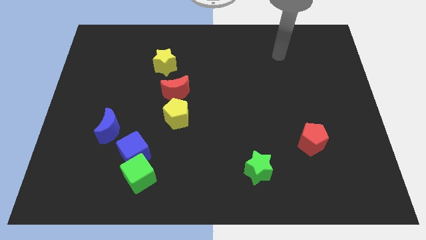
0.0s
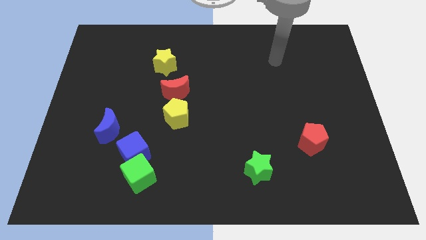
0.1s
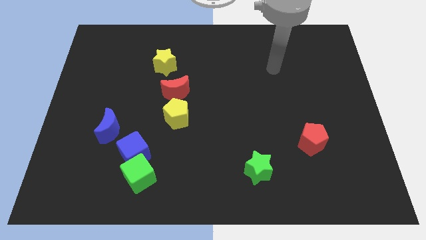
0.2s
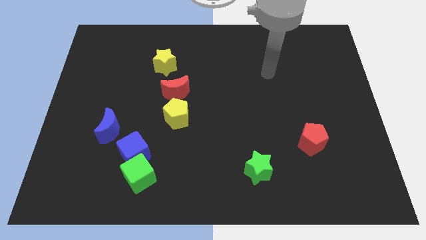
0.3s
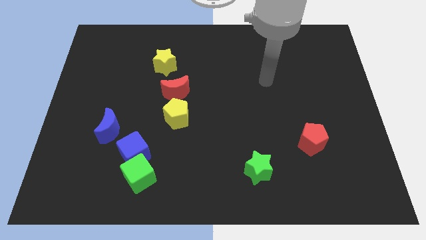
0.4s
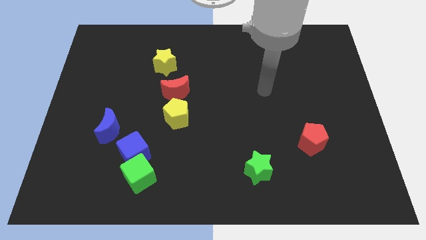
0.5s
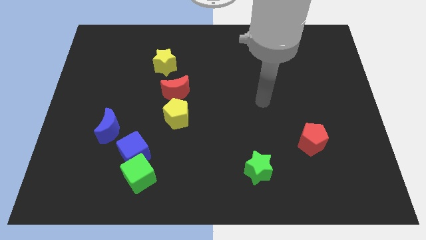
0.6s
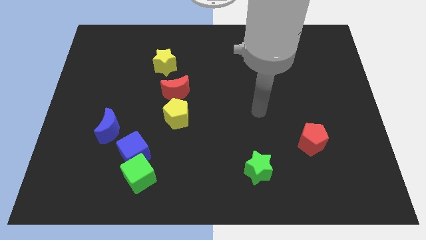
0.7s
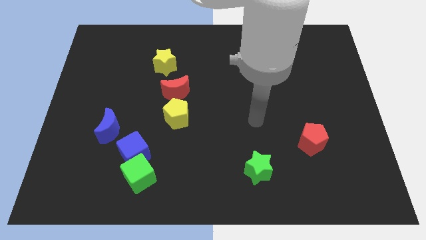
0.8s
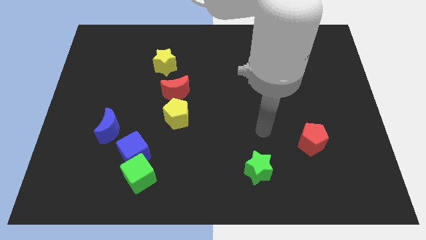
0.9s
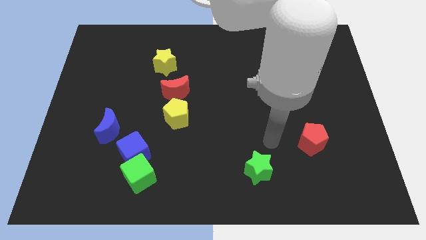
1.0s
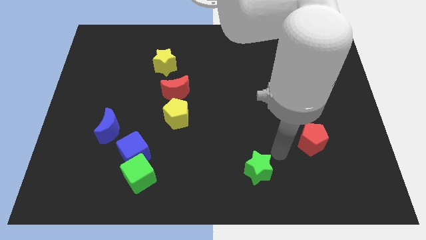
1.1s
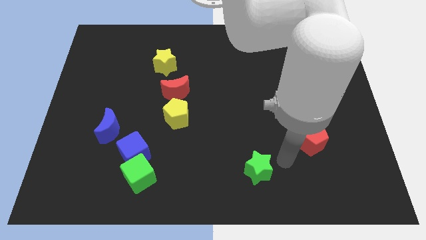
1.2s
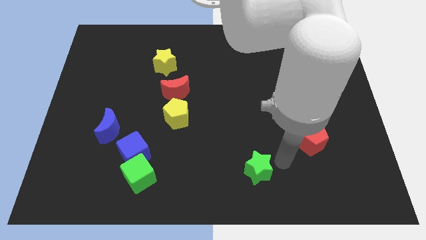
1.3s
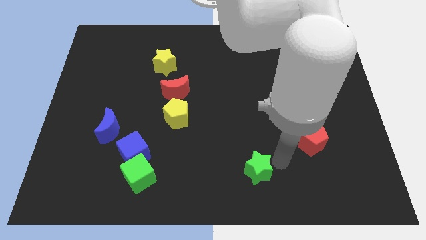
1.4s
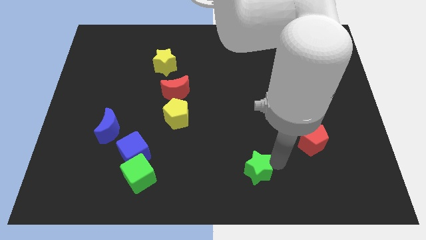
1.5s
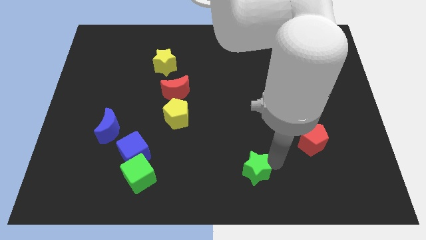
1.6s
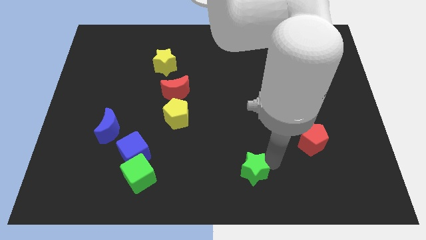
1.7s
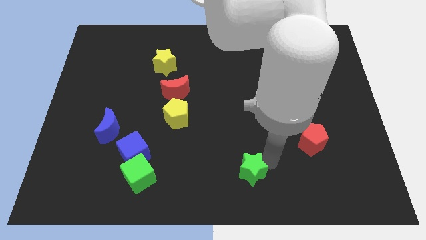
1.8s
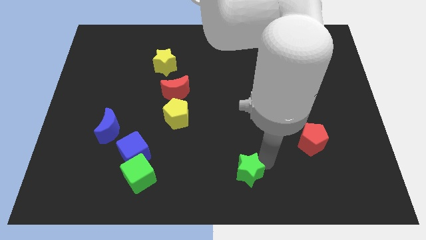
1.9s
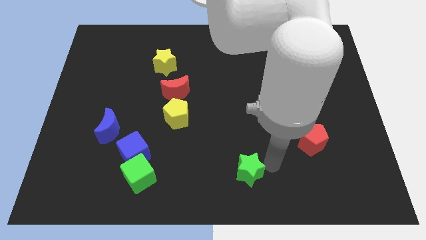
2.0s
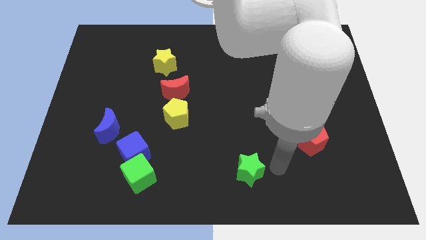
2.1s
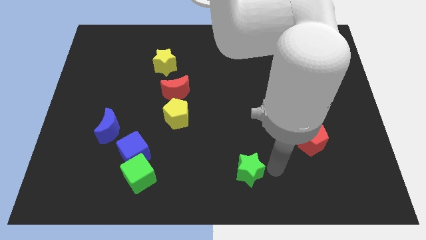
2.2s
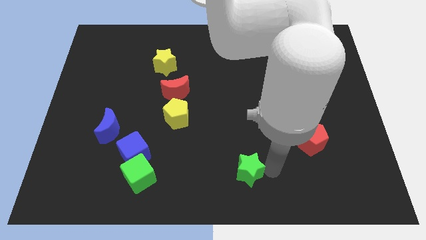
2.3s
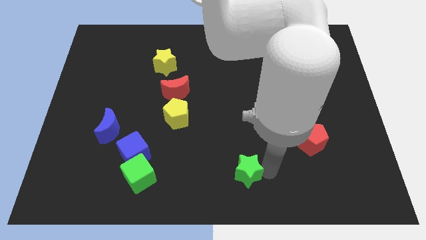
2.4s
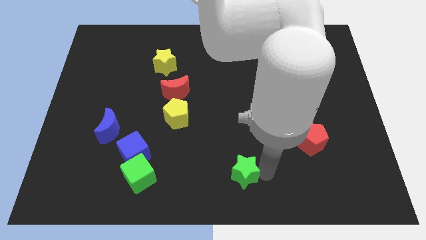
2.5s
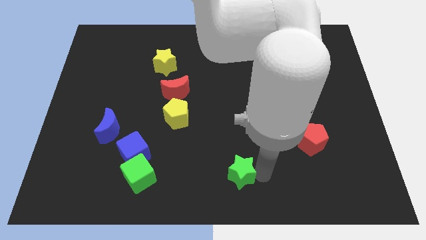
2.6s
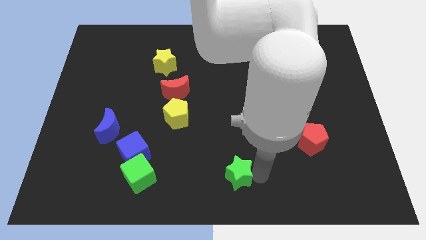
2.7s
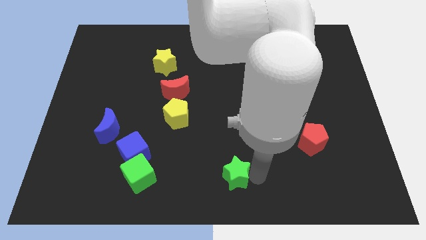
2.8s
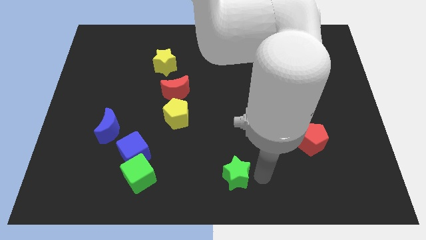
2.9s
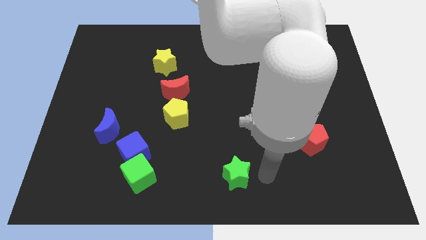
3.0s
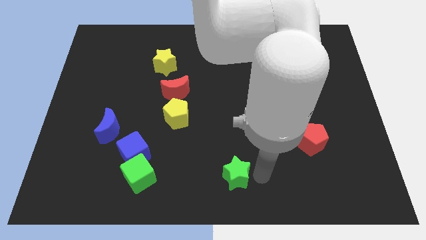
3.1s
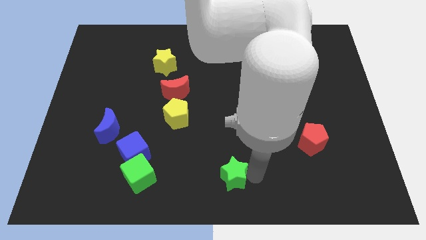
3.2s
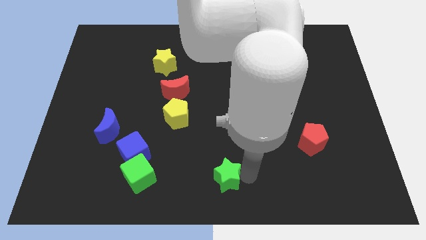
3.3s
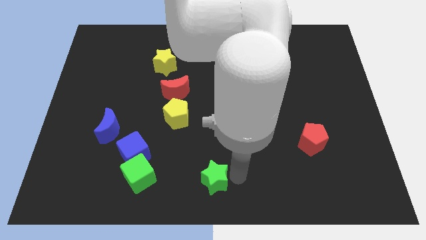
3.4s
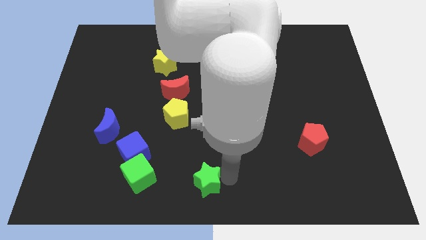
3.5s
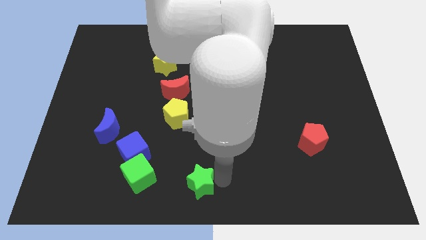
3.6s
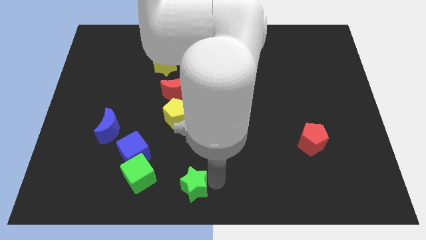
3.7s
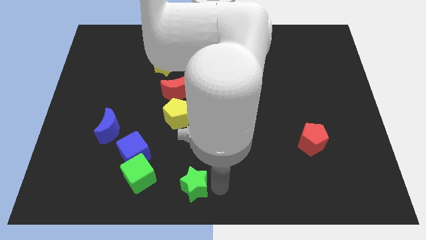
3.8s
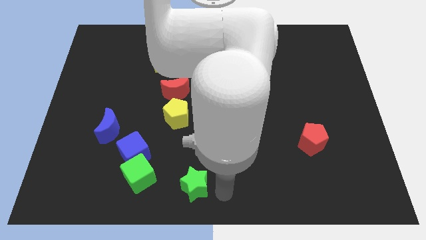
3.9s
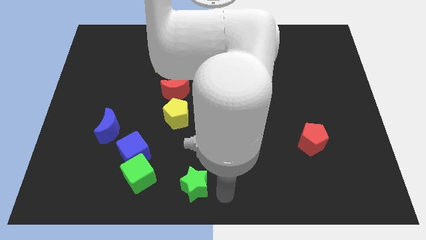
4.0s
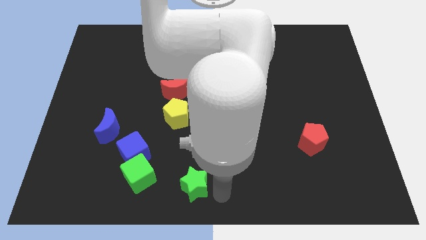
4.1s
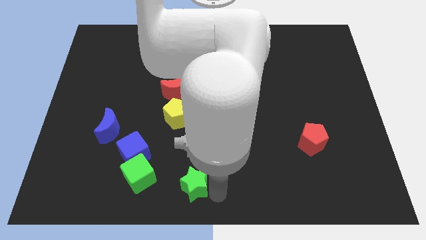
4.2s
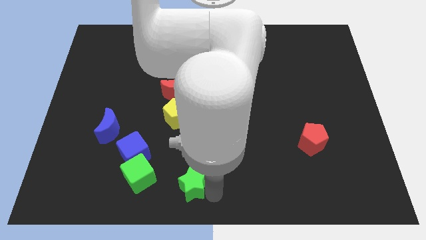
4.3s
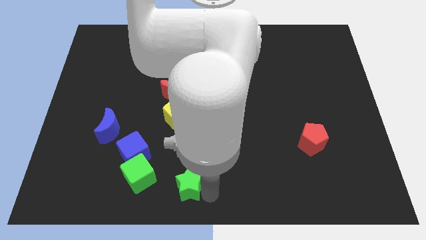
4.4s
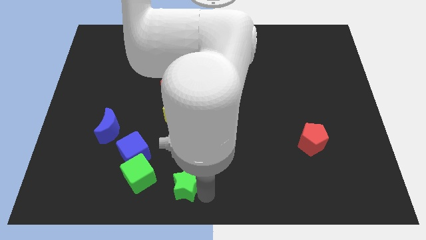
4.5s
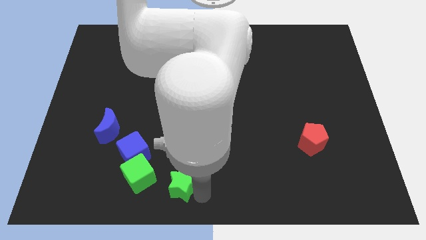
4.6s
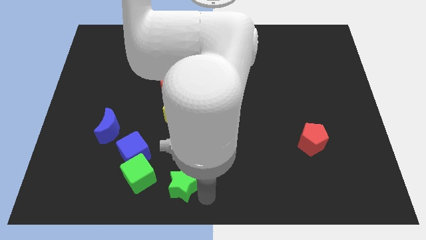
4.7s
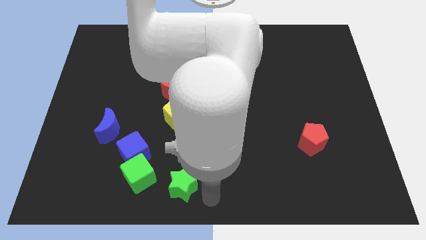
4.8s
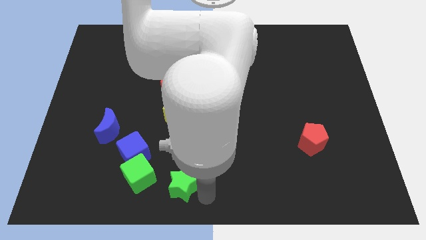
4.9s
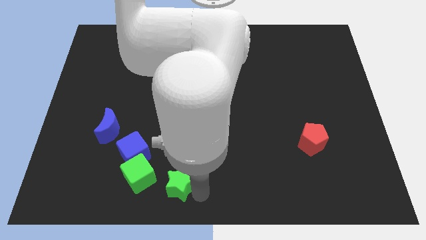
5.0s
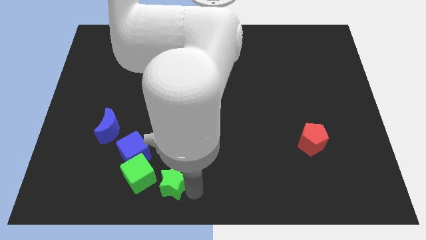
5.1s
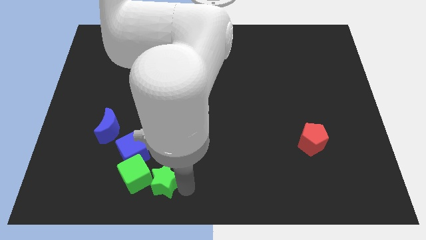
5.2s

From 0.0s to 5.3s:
push the green star to the green cube
